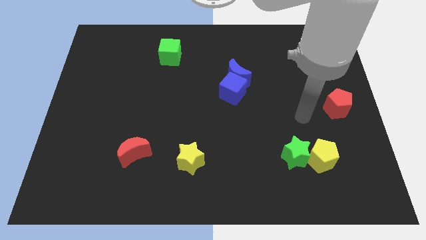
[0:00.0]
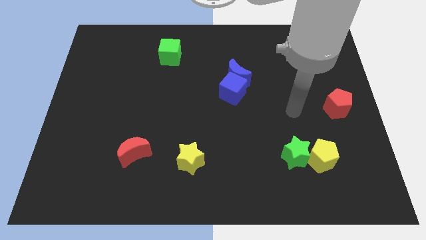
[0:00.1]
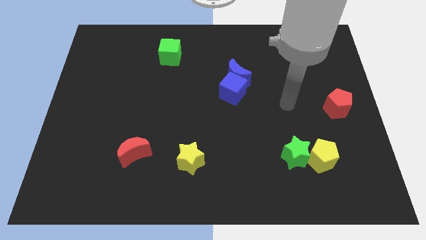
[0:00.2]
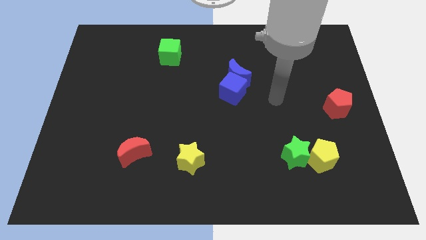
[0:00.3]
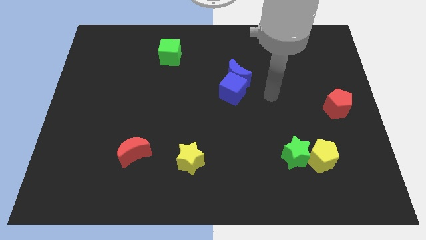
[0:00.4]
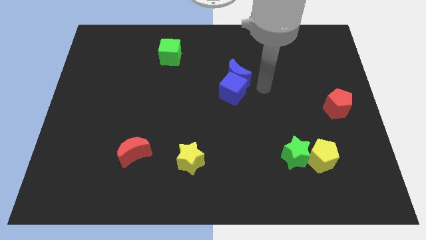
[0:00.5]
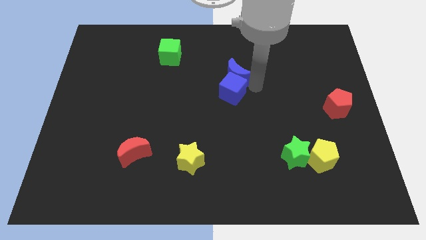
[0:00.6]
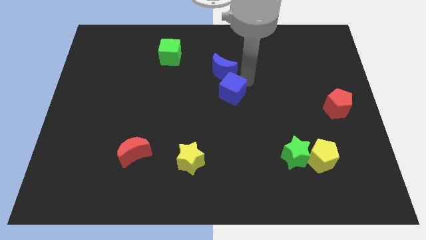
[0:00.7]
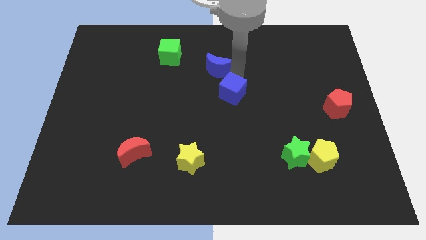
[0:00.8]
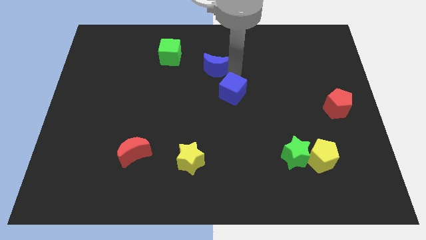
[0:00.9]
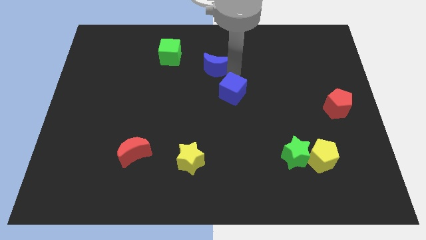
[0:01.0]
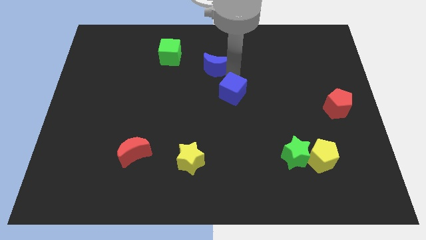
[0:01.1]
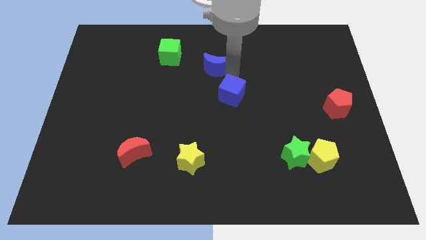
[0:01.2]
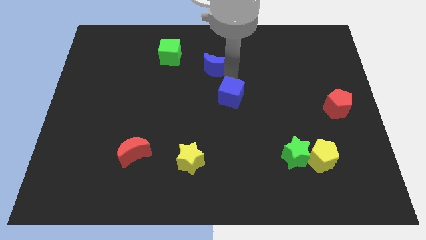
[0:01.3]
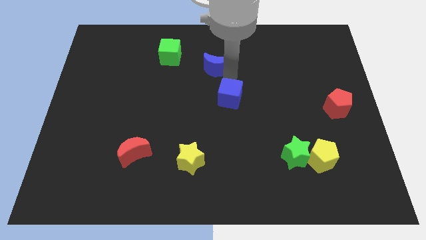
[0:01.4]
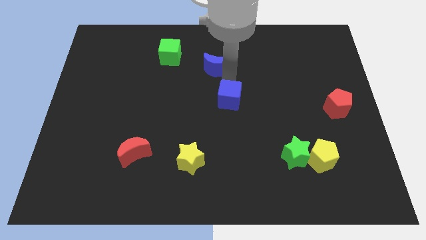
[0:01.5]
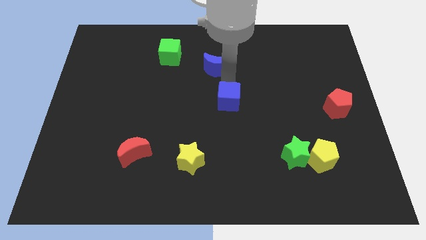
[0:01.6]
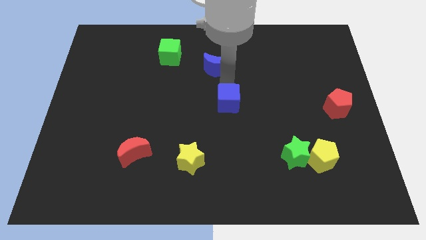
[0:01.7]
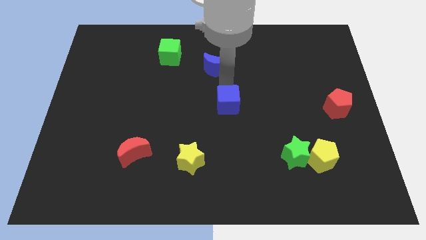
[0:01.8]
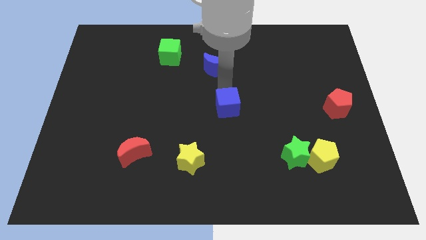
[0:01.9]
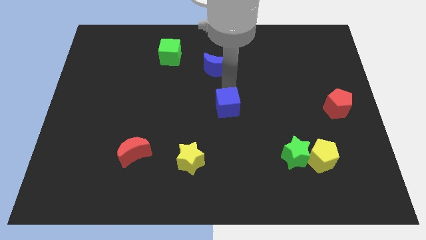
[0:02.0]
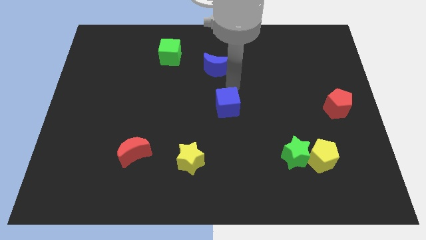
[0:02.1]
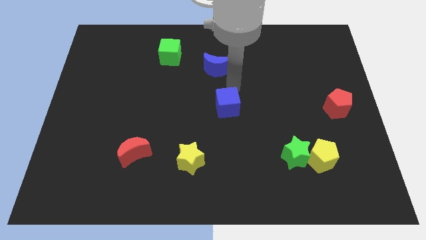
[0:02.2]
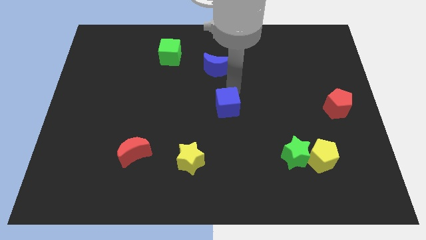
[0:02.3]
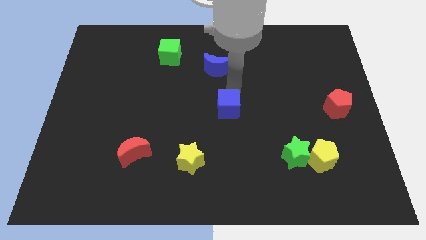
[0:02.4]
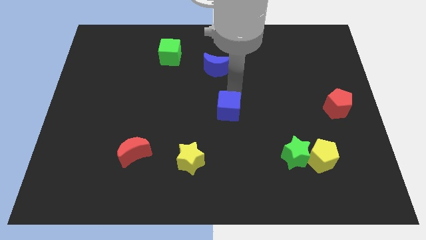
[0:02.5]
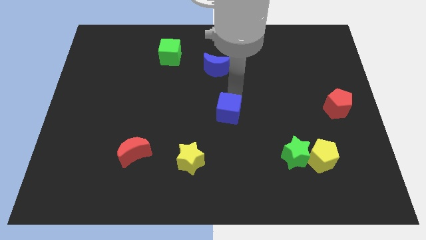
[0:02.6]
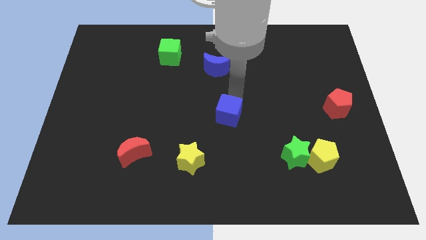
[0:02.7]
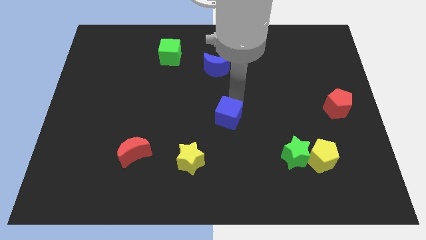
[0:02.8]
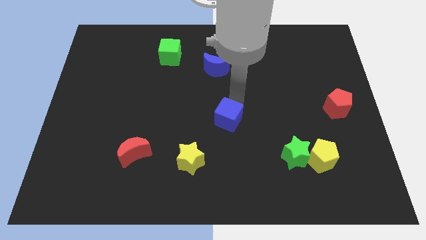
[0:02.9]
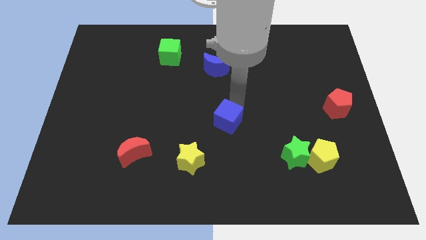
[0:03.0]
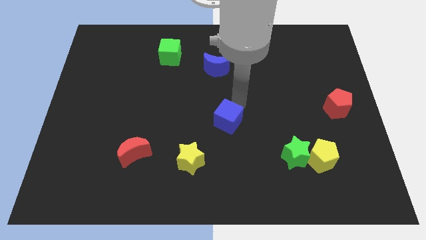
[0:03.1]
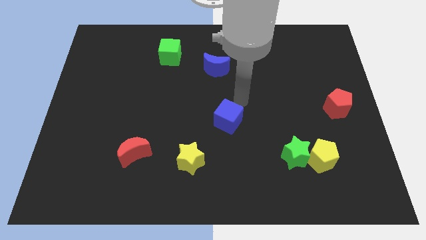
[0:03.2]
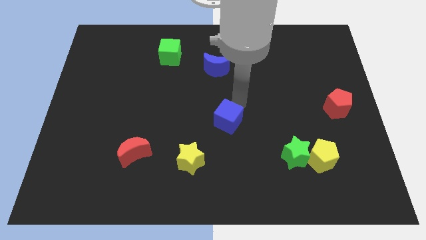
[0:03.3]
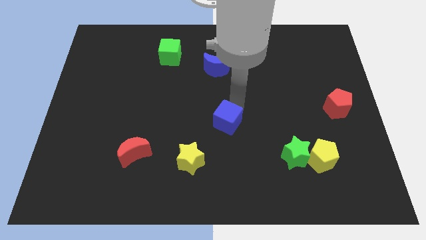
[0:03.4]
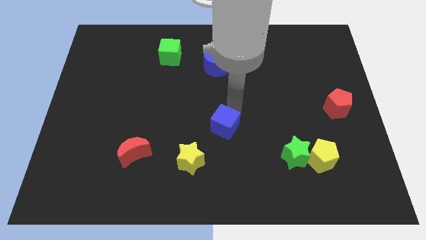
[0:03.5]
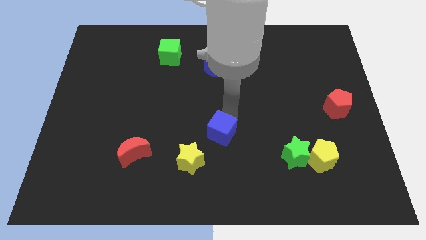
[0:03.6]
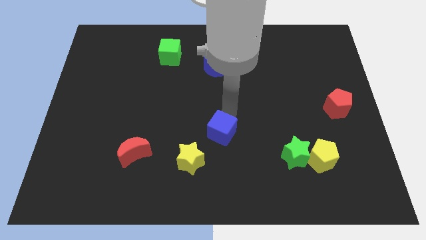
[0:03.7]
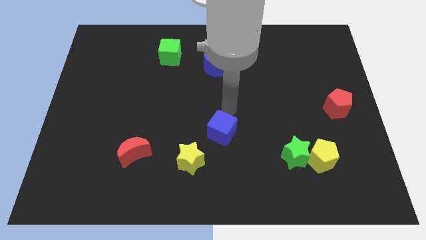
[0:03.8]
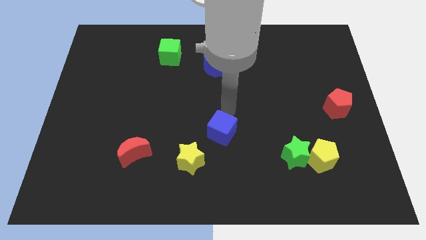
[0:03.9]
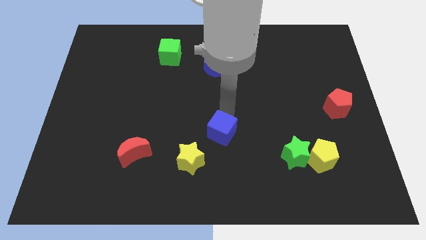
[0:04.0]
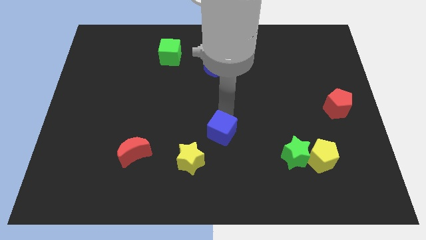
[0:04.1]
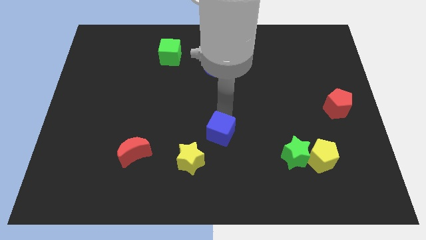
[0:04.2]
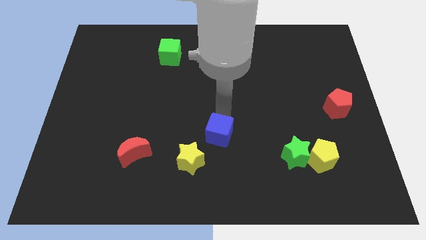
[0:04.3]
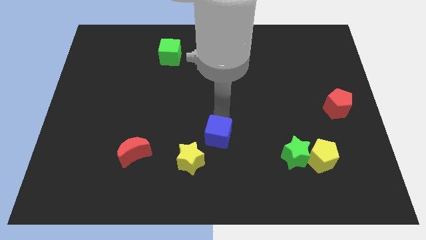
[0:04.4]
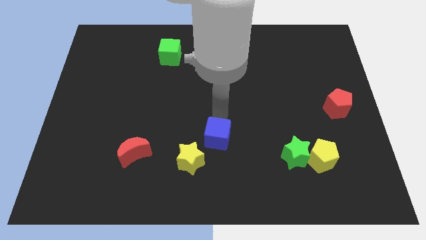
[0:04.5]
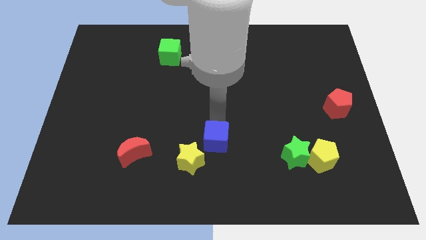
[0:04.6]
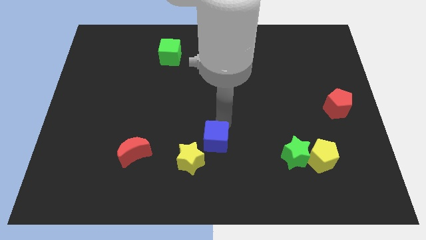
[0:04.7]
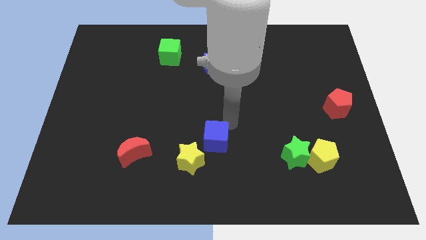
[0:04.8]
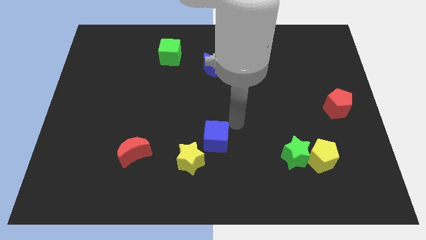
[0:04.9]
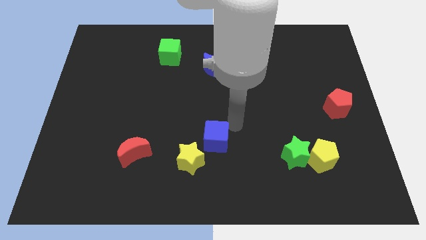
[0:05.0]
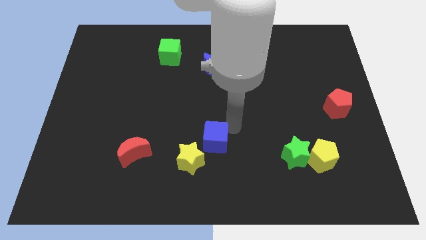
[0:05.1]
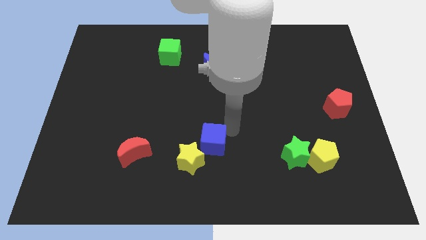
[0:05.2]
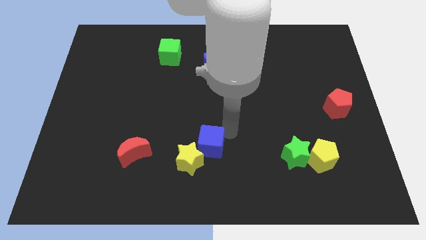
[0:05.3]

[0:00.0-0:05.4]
put the blue cube next to the yellow star

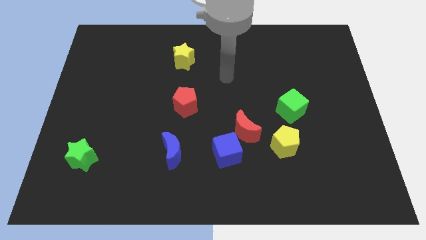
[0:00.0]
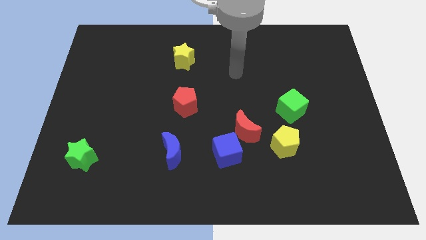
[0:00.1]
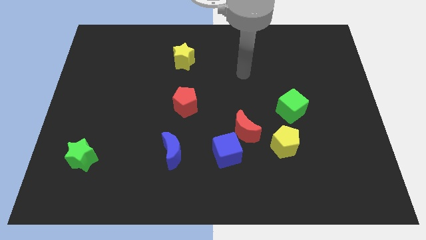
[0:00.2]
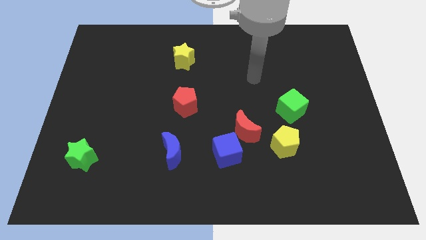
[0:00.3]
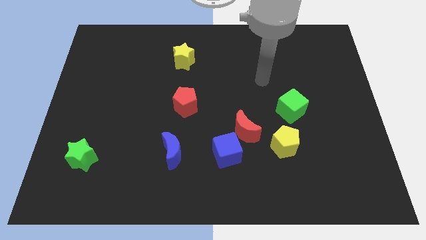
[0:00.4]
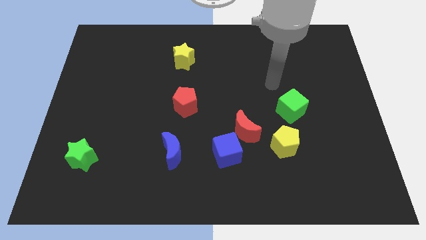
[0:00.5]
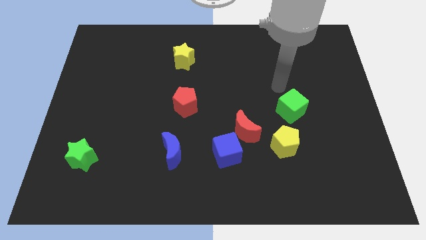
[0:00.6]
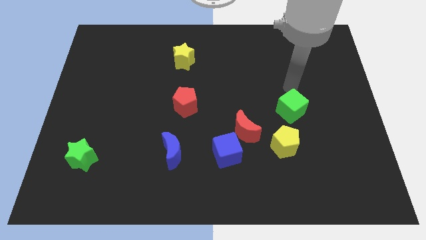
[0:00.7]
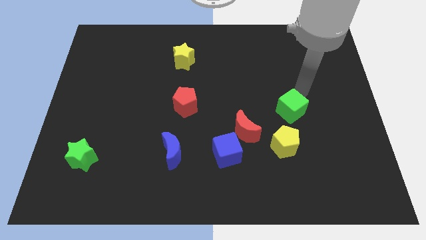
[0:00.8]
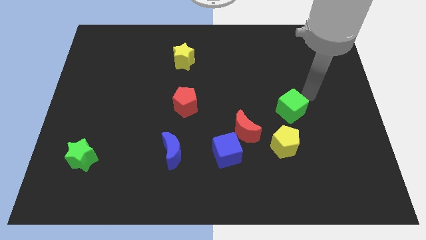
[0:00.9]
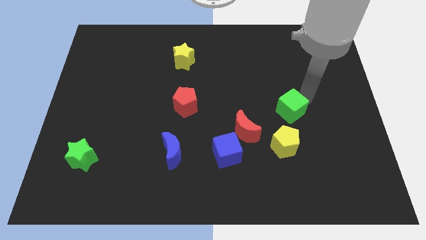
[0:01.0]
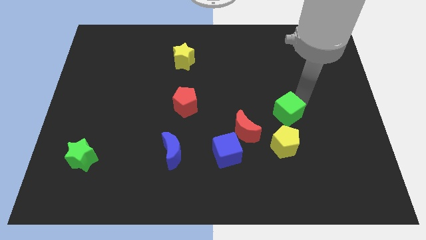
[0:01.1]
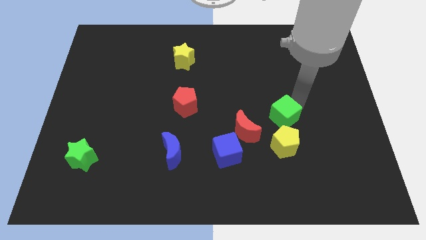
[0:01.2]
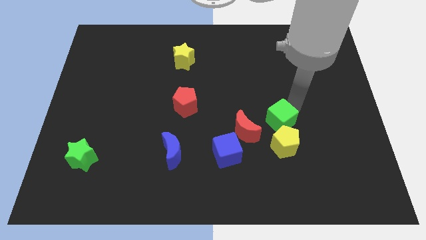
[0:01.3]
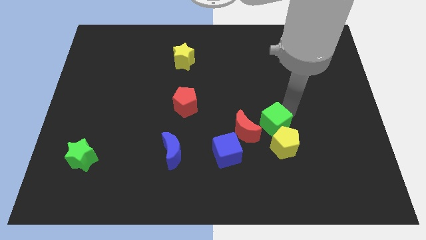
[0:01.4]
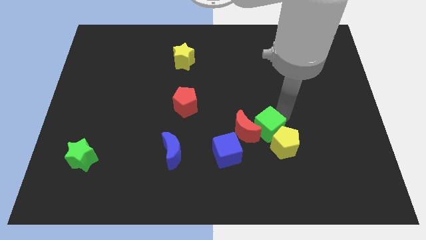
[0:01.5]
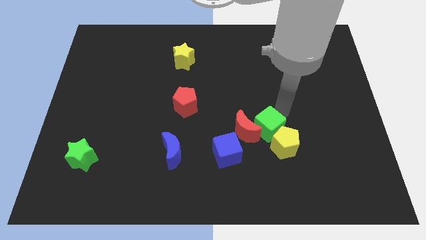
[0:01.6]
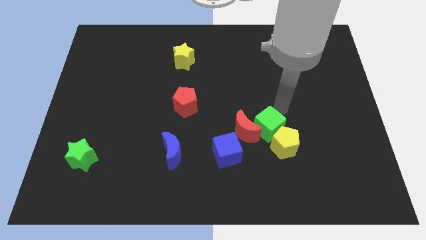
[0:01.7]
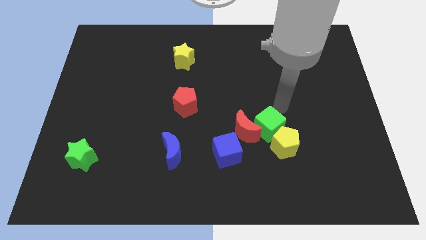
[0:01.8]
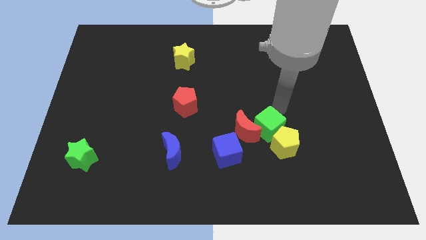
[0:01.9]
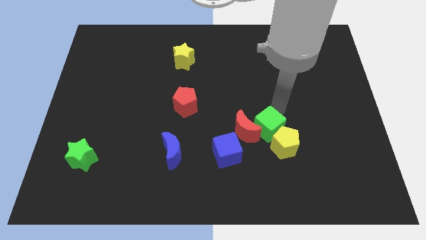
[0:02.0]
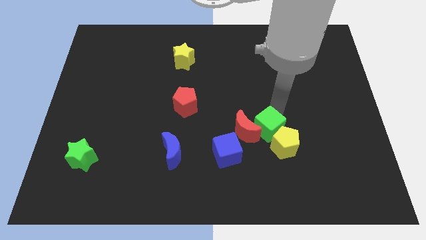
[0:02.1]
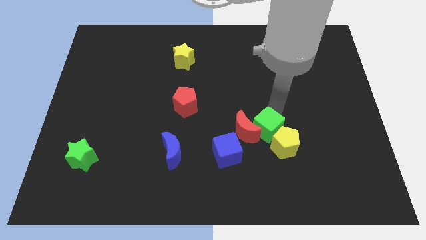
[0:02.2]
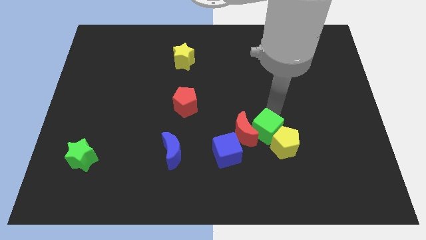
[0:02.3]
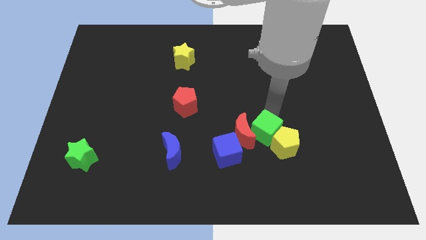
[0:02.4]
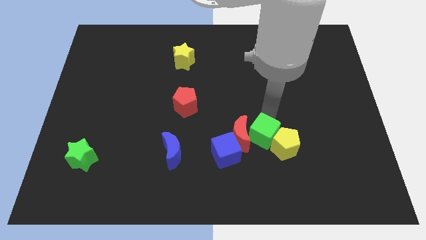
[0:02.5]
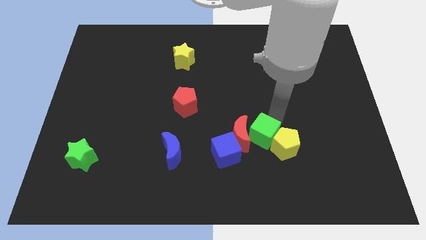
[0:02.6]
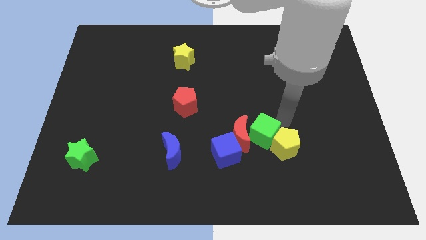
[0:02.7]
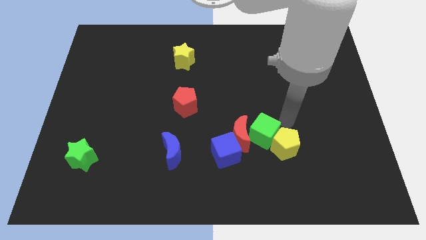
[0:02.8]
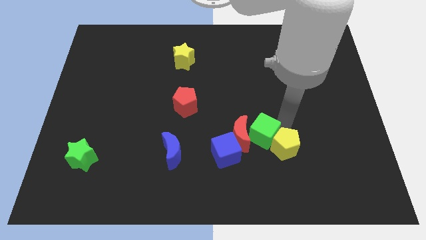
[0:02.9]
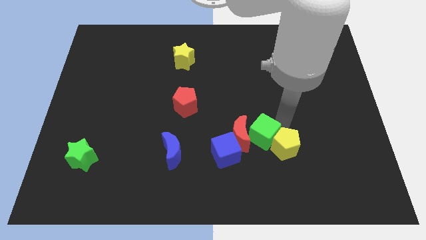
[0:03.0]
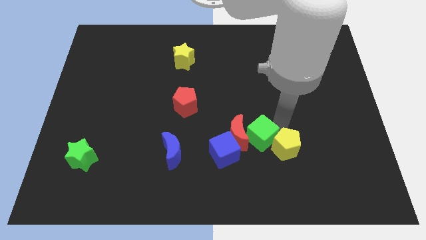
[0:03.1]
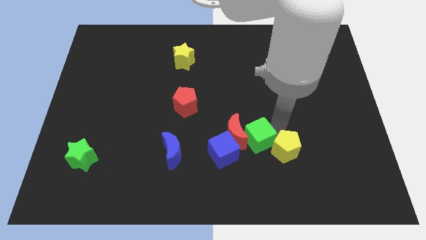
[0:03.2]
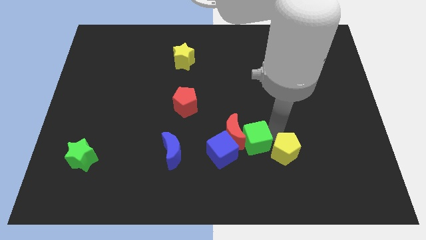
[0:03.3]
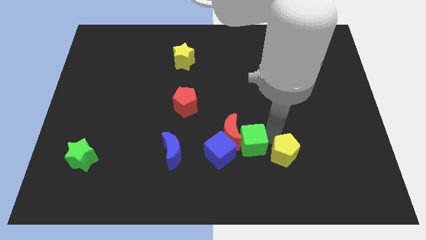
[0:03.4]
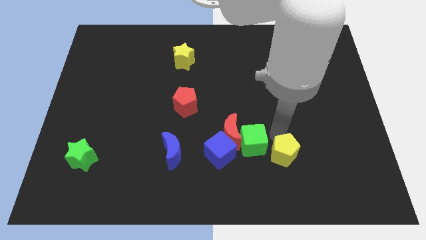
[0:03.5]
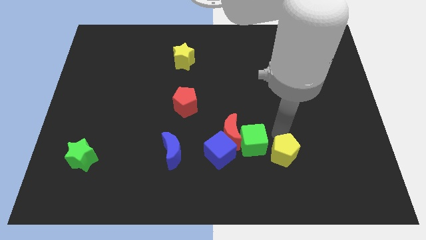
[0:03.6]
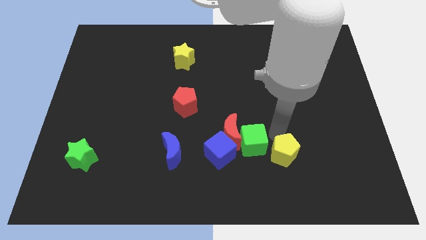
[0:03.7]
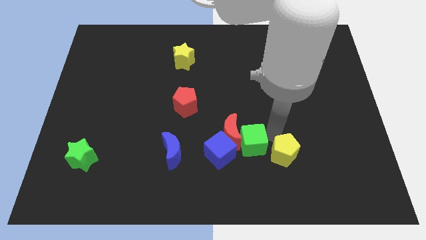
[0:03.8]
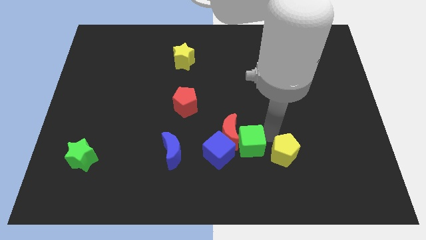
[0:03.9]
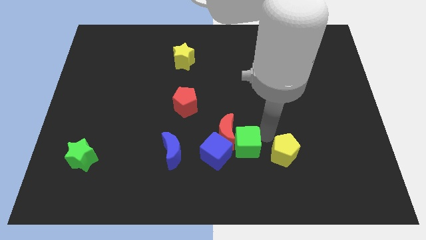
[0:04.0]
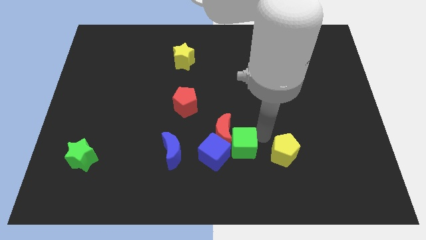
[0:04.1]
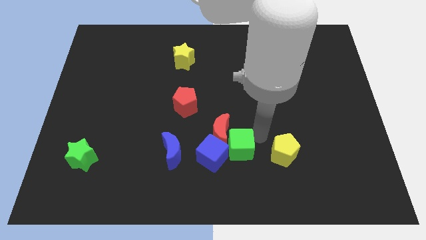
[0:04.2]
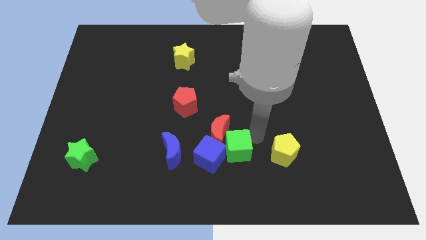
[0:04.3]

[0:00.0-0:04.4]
move the green cube to the blue cube
